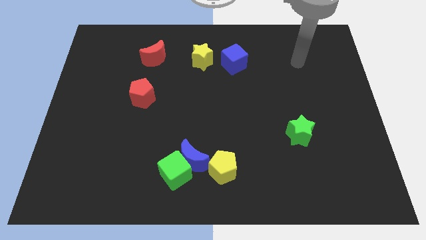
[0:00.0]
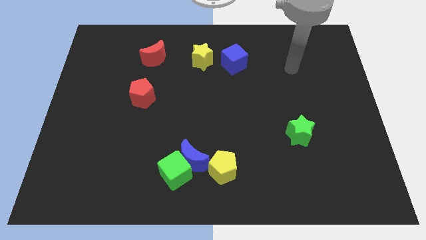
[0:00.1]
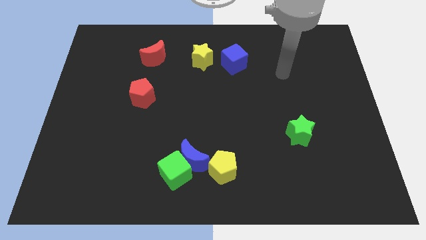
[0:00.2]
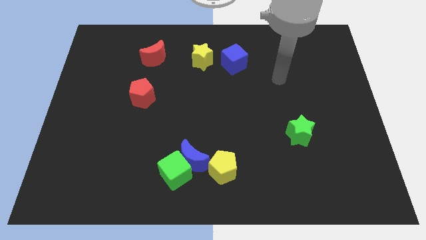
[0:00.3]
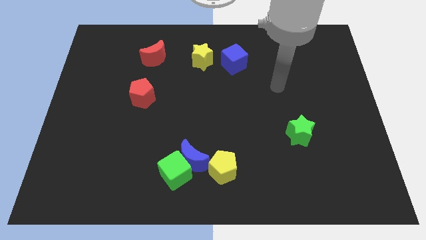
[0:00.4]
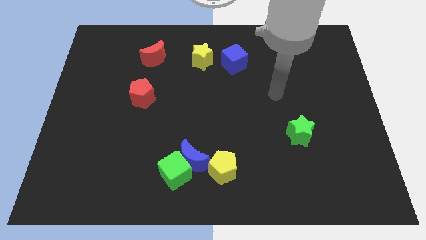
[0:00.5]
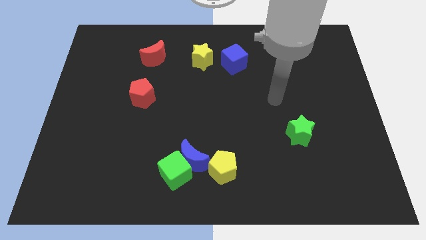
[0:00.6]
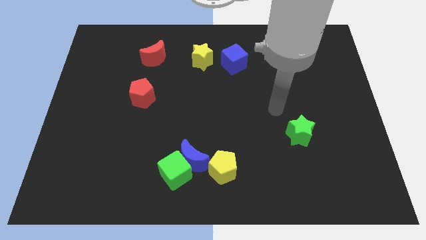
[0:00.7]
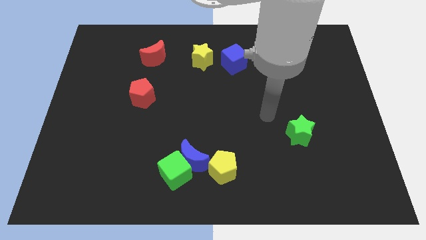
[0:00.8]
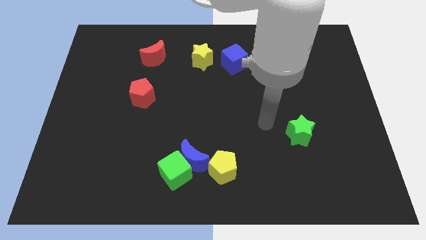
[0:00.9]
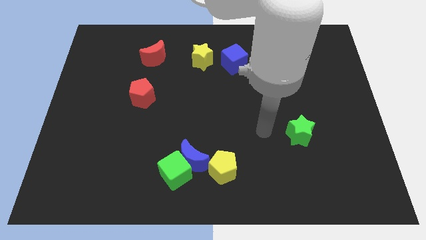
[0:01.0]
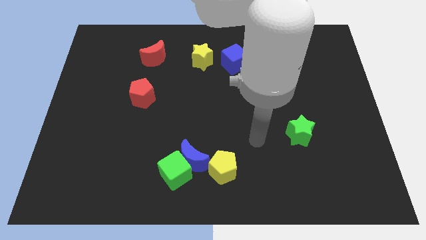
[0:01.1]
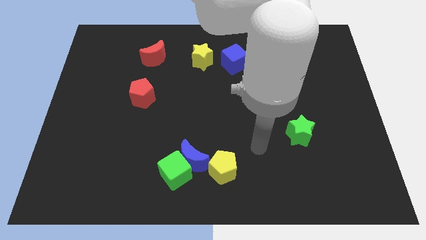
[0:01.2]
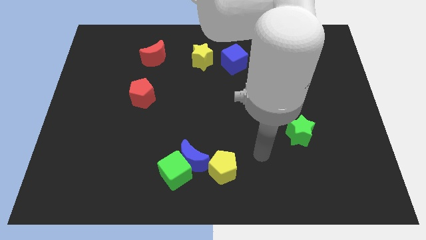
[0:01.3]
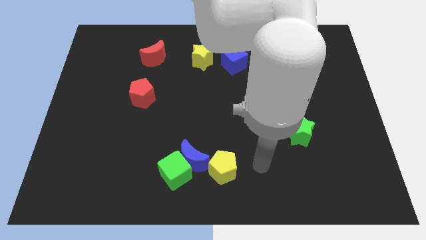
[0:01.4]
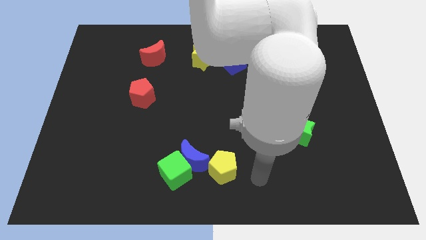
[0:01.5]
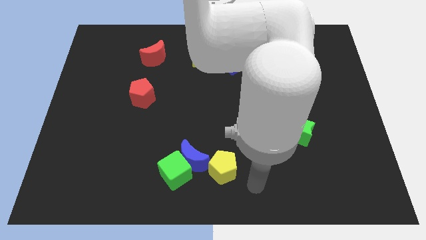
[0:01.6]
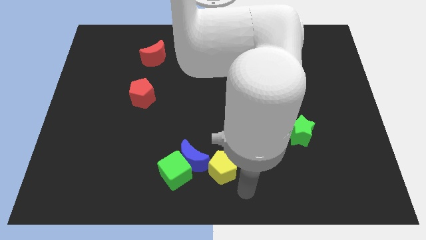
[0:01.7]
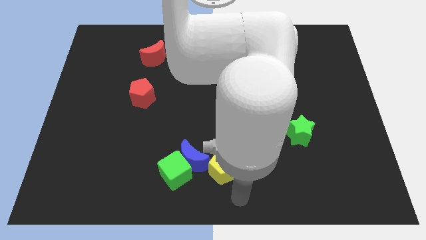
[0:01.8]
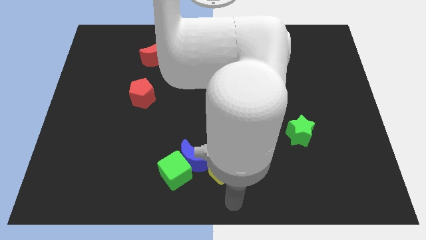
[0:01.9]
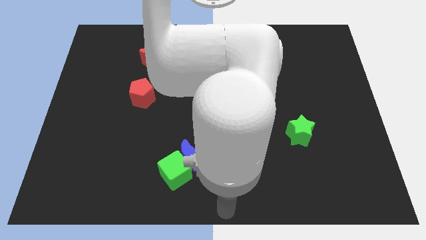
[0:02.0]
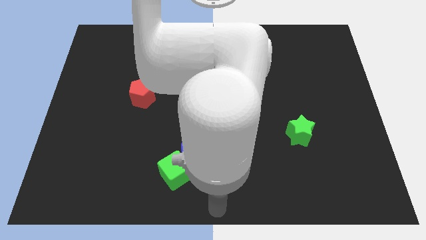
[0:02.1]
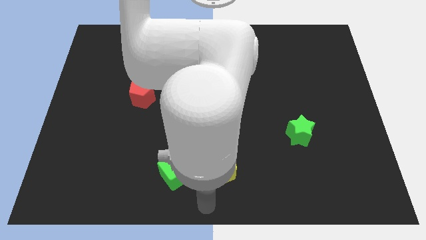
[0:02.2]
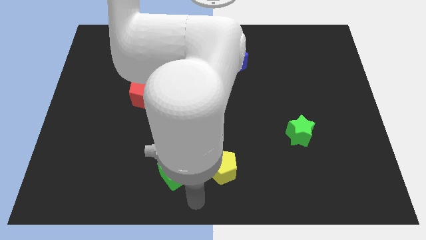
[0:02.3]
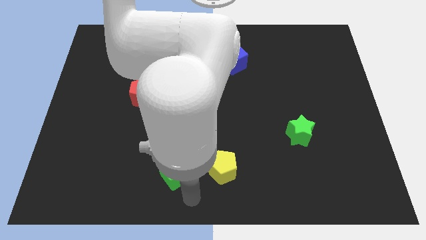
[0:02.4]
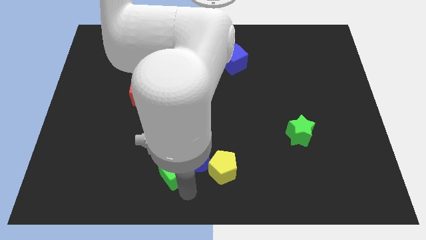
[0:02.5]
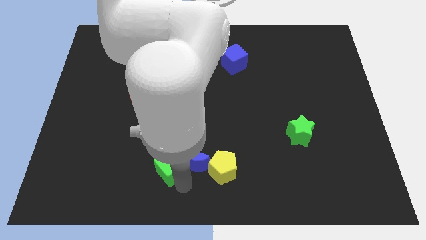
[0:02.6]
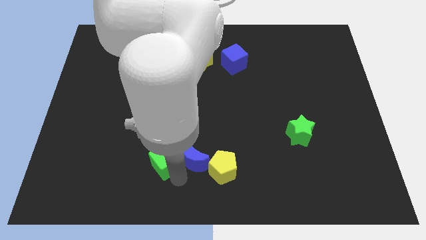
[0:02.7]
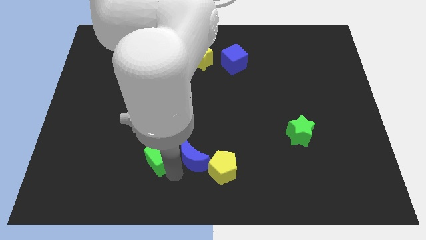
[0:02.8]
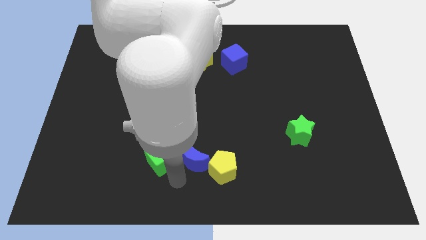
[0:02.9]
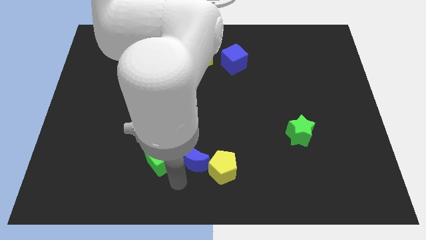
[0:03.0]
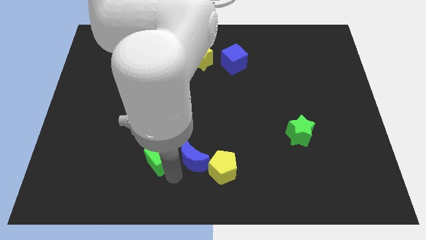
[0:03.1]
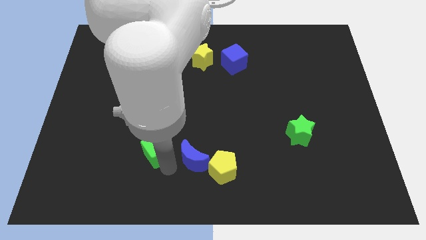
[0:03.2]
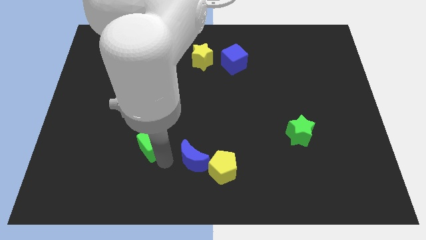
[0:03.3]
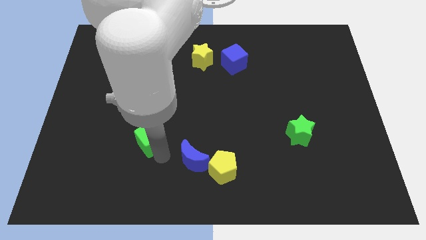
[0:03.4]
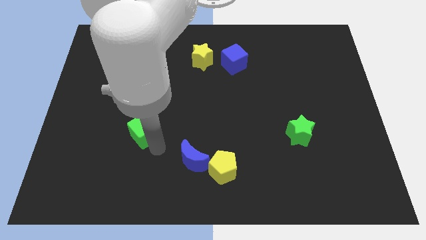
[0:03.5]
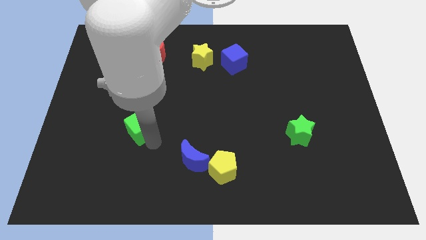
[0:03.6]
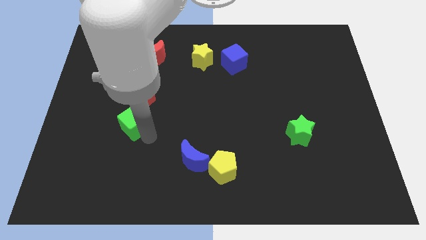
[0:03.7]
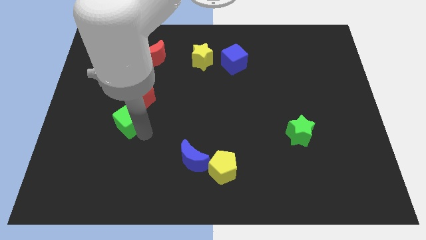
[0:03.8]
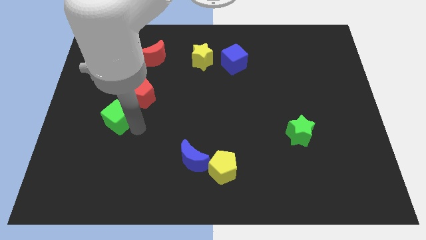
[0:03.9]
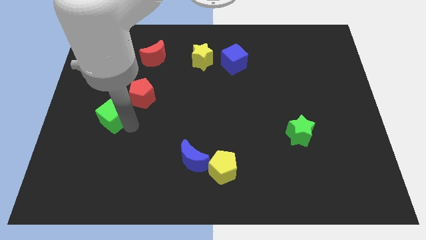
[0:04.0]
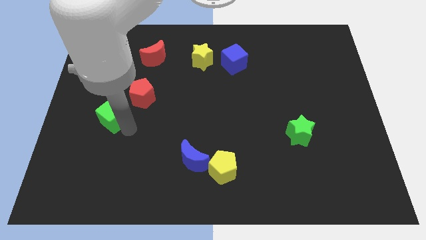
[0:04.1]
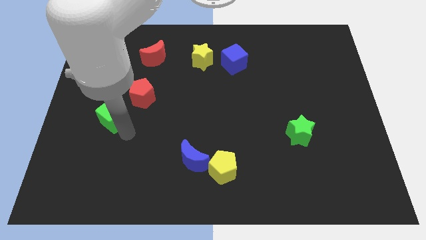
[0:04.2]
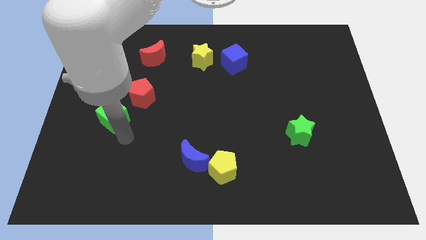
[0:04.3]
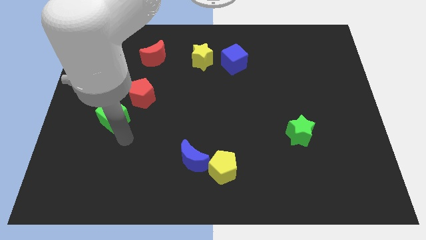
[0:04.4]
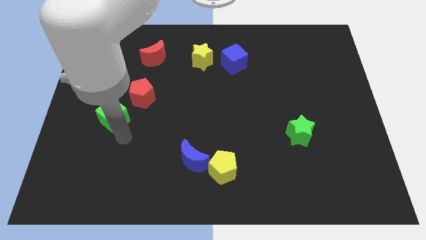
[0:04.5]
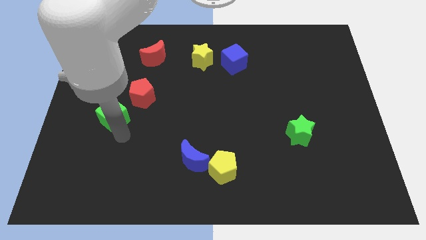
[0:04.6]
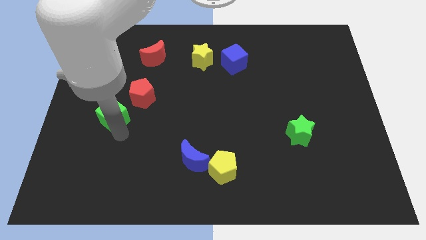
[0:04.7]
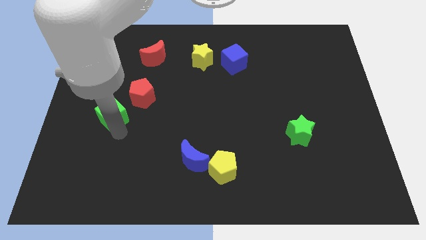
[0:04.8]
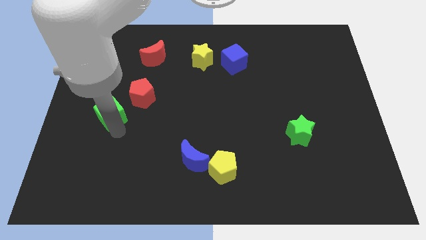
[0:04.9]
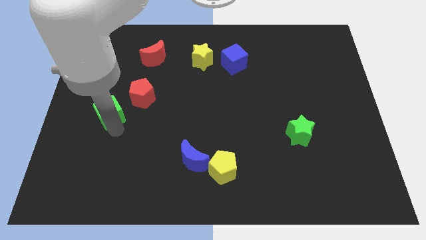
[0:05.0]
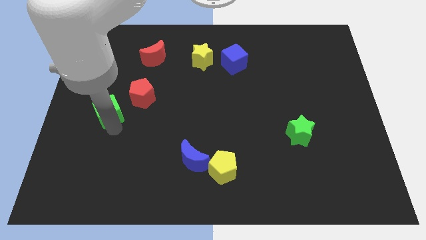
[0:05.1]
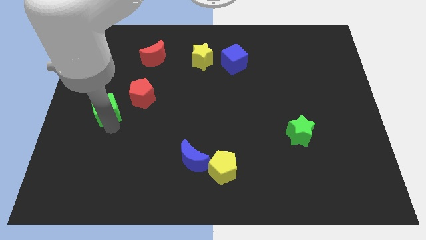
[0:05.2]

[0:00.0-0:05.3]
push the green cube just left of the red pentagon

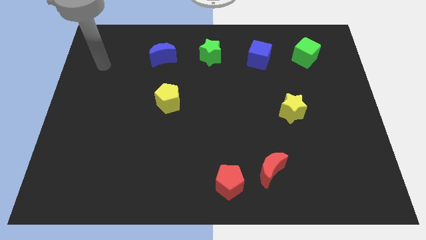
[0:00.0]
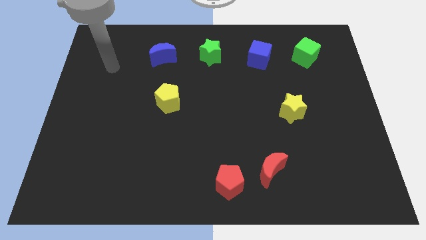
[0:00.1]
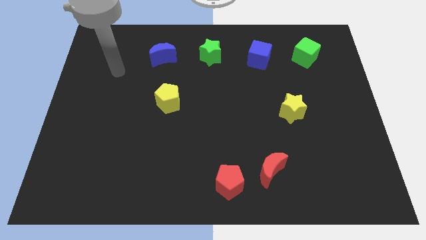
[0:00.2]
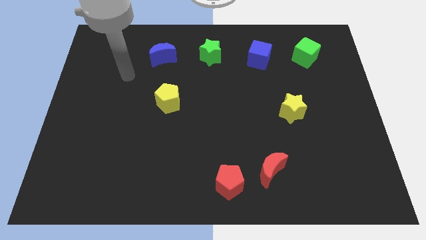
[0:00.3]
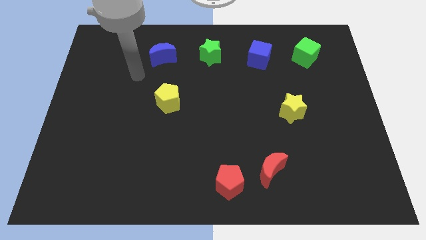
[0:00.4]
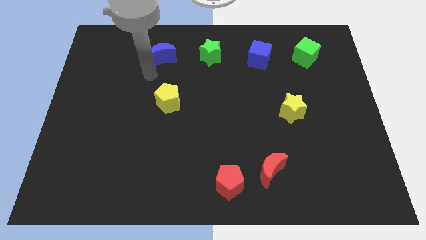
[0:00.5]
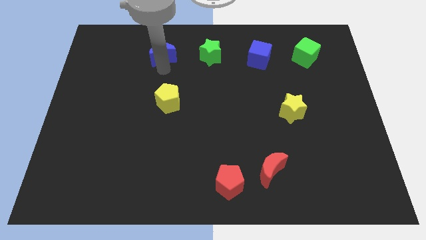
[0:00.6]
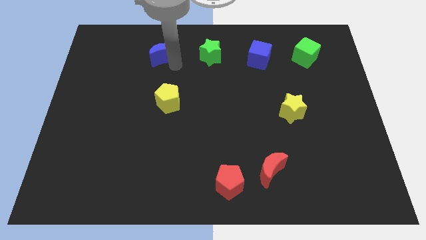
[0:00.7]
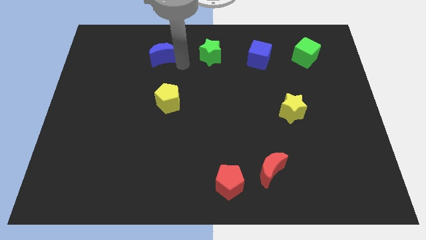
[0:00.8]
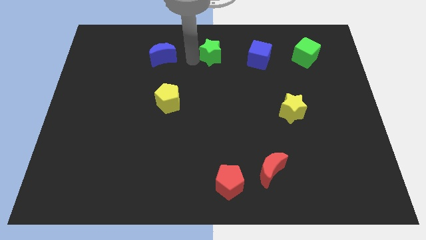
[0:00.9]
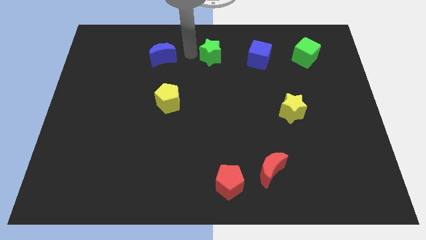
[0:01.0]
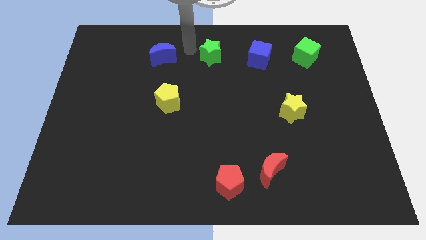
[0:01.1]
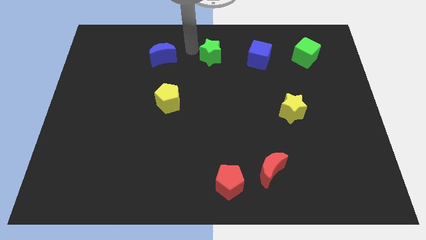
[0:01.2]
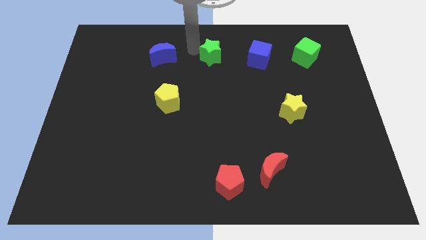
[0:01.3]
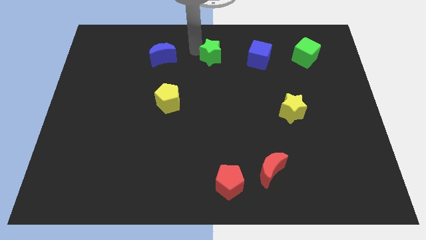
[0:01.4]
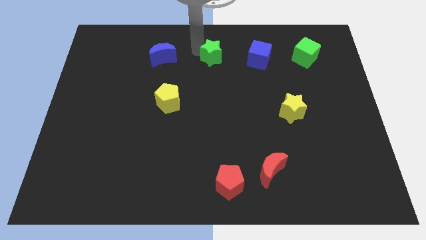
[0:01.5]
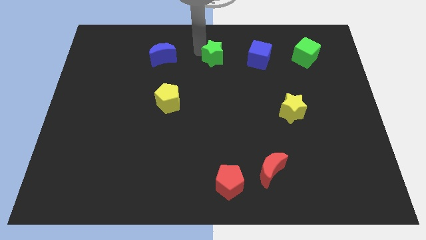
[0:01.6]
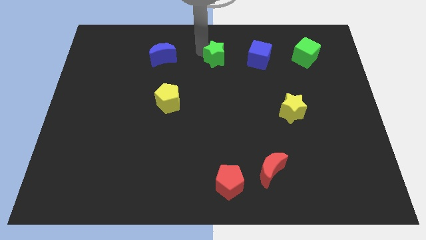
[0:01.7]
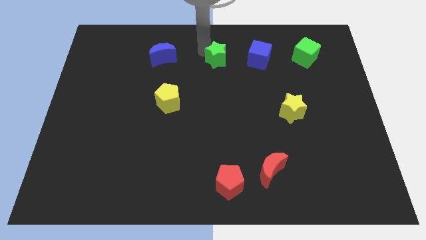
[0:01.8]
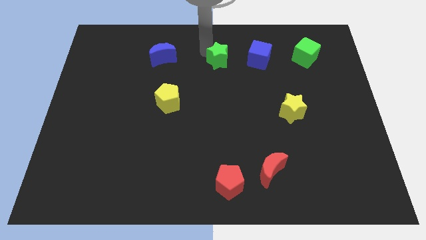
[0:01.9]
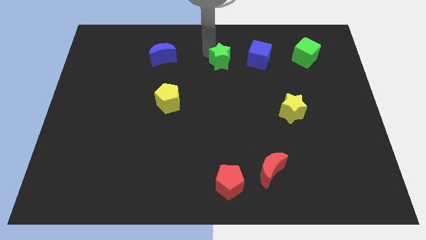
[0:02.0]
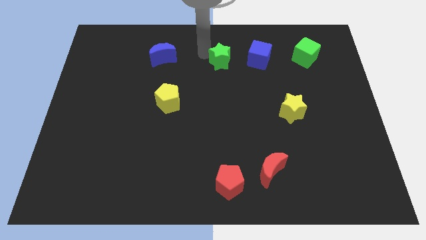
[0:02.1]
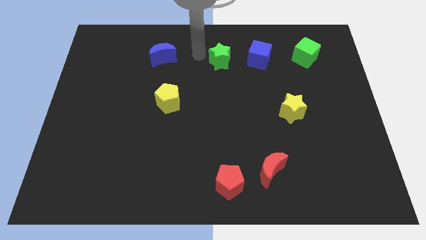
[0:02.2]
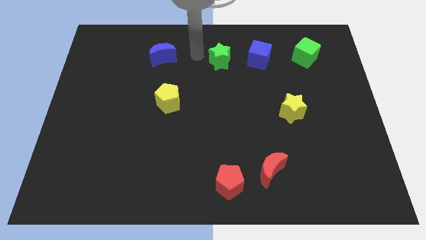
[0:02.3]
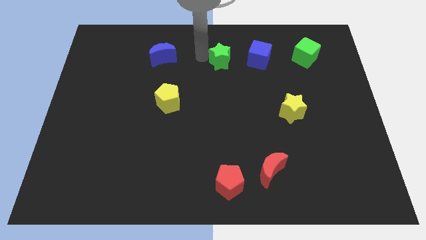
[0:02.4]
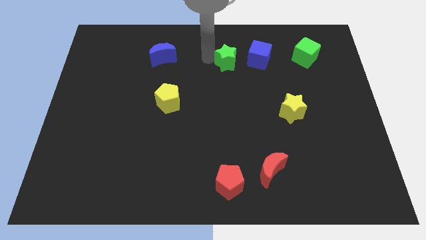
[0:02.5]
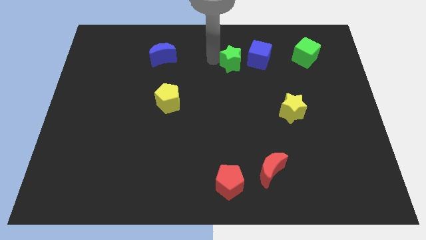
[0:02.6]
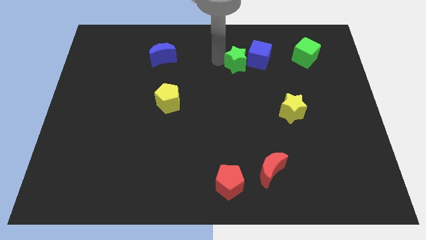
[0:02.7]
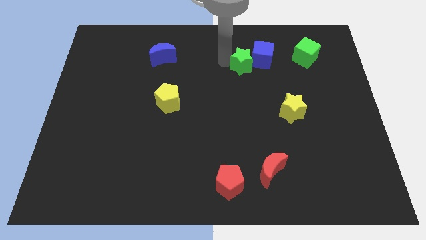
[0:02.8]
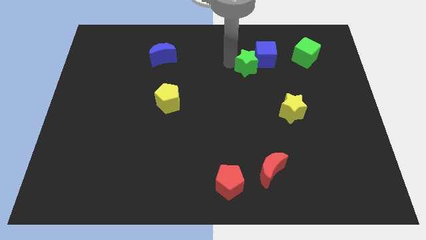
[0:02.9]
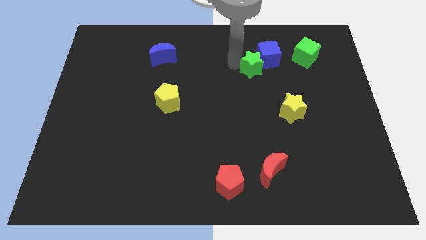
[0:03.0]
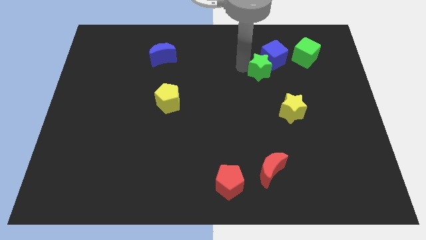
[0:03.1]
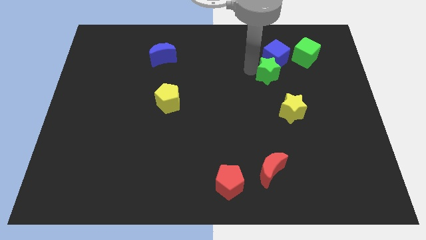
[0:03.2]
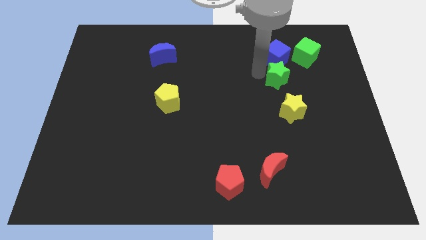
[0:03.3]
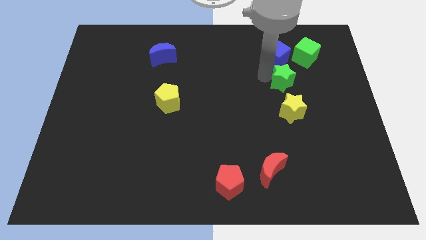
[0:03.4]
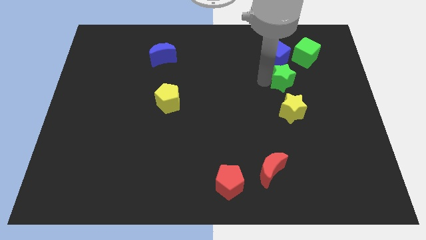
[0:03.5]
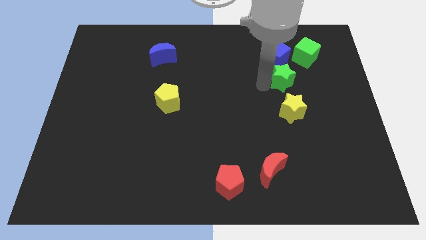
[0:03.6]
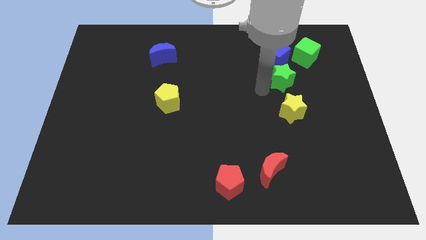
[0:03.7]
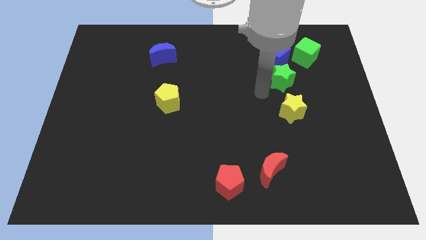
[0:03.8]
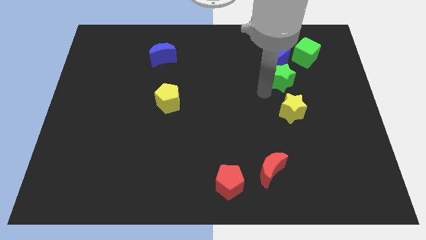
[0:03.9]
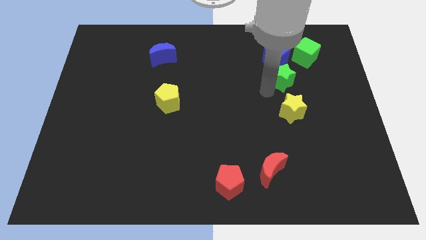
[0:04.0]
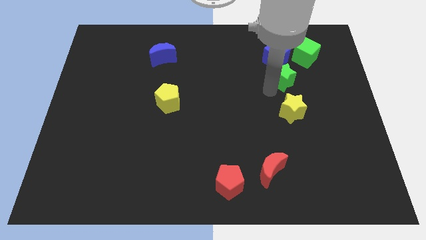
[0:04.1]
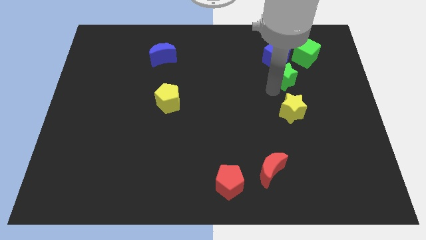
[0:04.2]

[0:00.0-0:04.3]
push the green star to the bottom right of the blue cube
